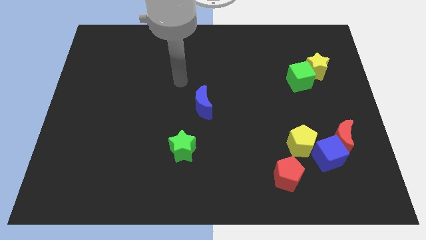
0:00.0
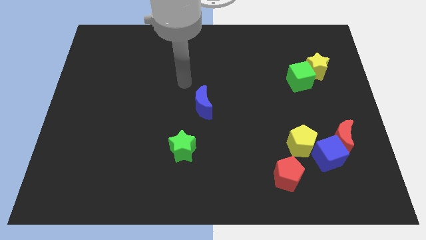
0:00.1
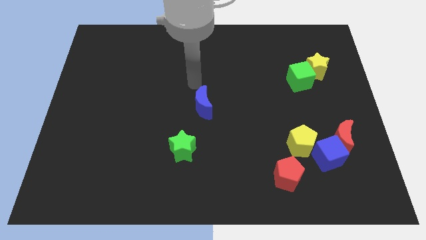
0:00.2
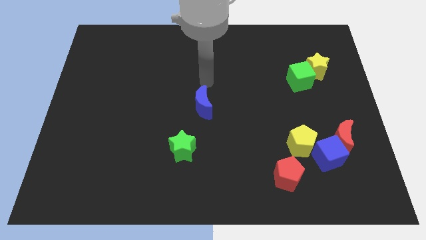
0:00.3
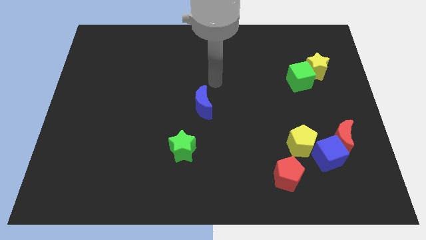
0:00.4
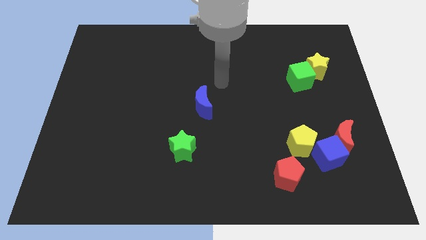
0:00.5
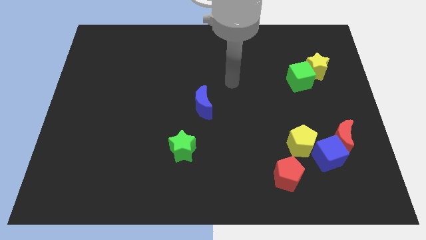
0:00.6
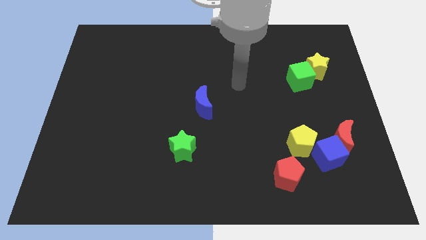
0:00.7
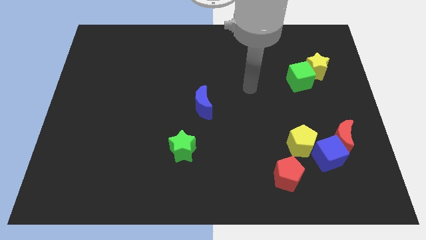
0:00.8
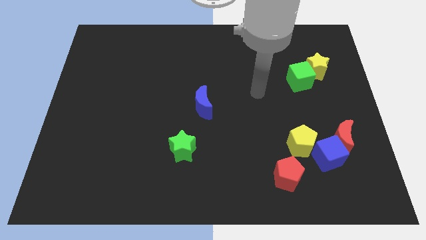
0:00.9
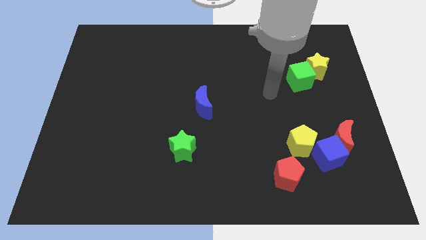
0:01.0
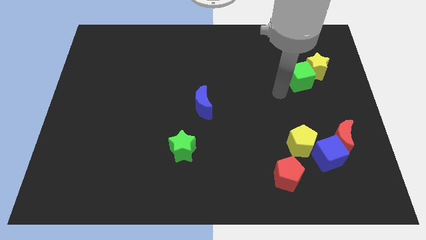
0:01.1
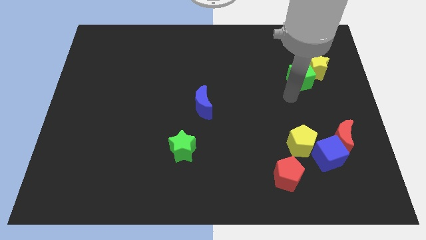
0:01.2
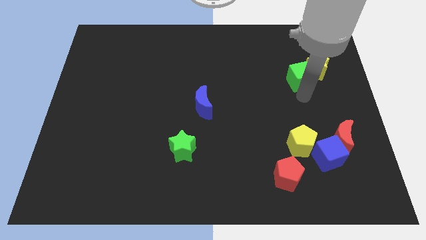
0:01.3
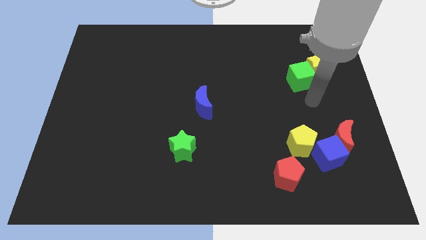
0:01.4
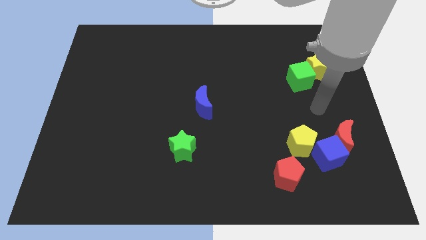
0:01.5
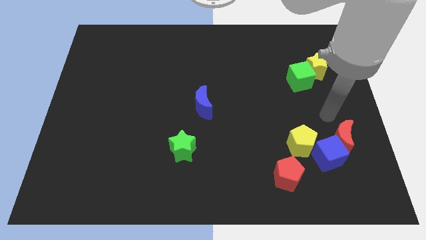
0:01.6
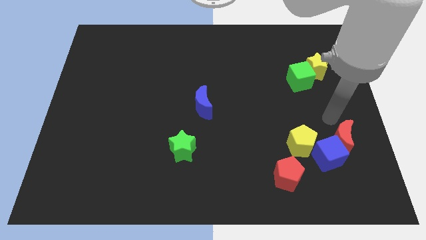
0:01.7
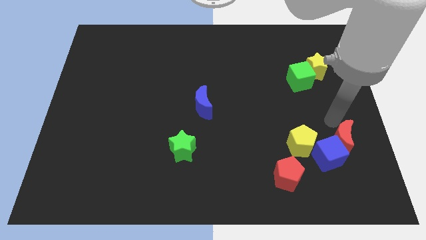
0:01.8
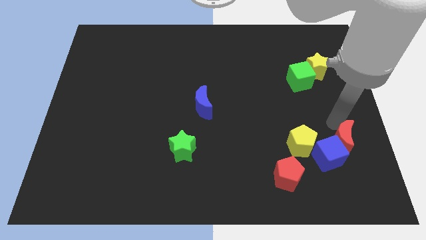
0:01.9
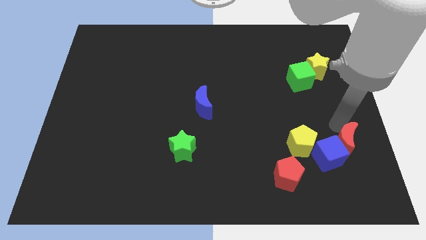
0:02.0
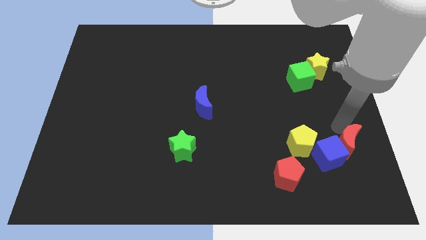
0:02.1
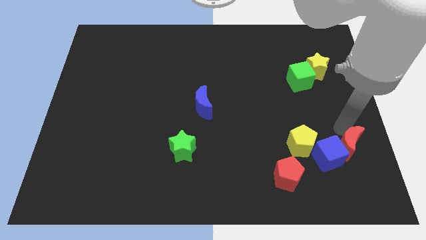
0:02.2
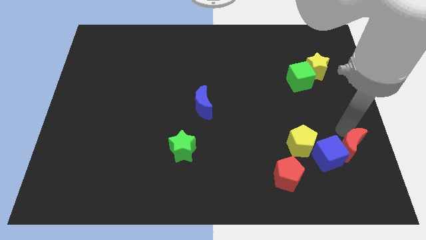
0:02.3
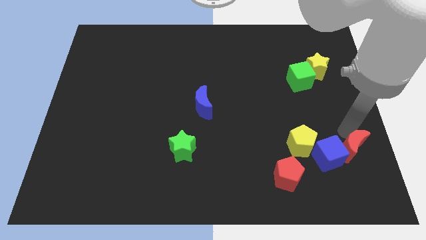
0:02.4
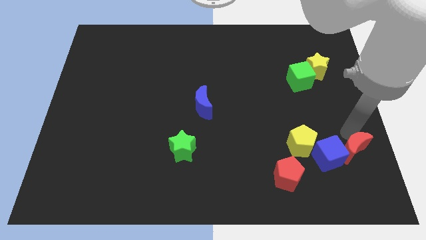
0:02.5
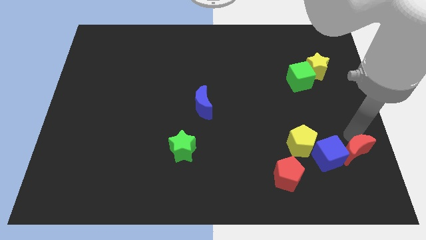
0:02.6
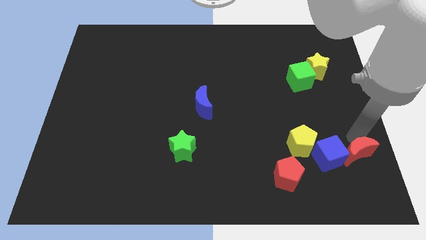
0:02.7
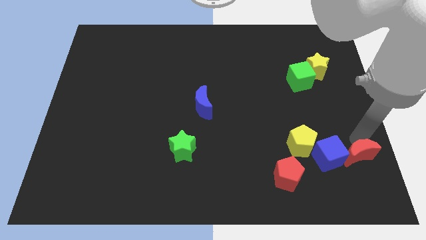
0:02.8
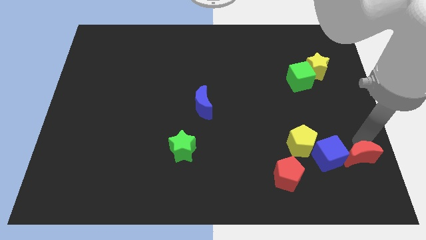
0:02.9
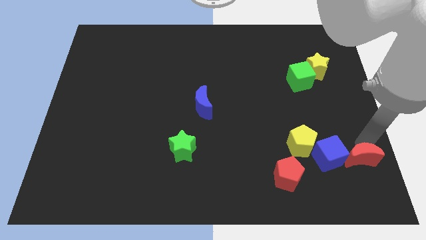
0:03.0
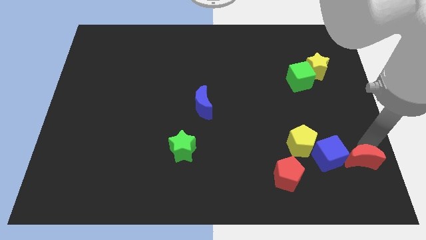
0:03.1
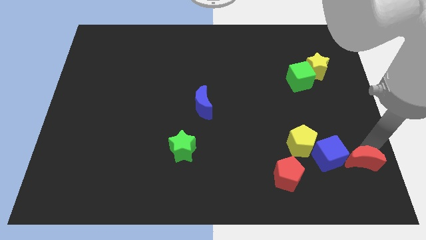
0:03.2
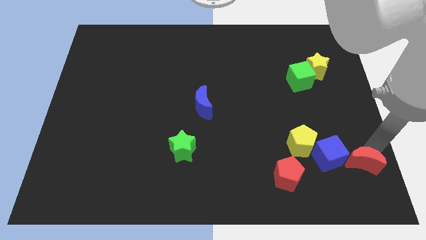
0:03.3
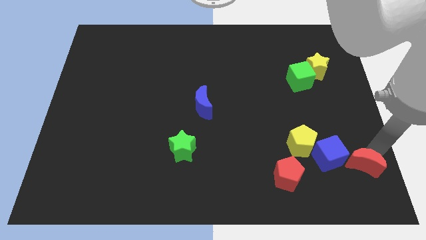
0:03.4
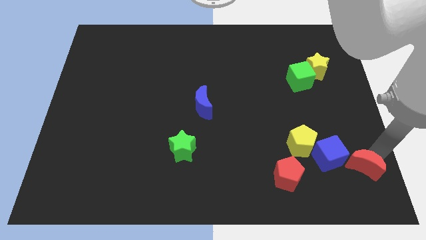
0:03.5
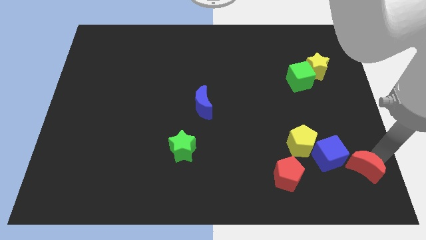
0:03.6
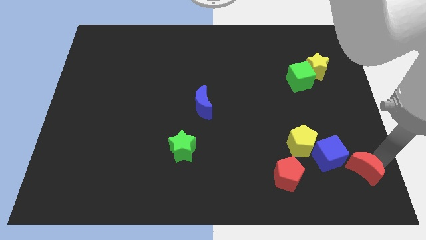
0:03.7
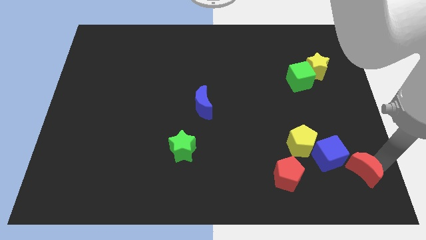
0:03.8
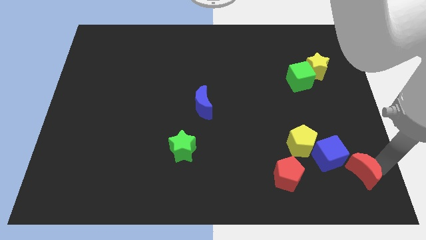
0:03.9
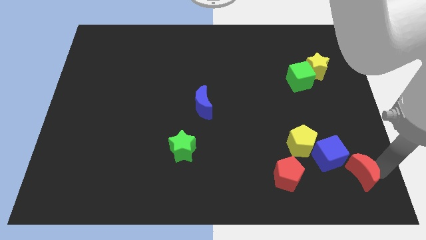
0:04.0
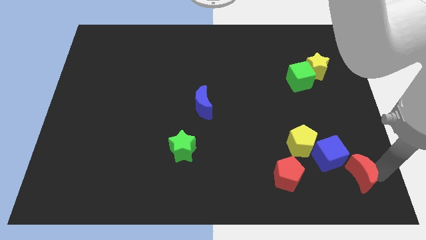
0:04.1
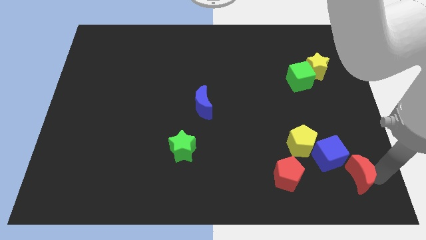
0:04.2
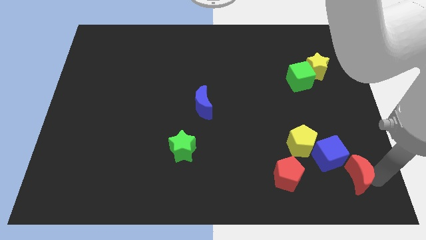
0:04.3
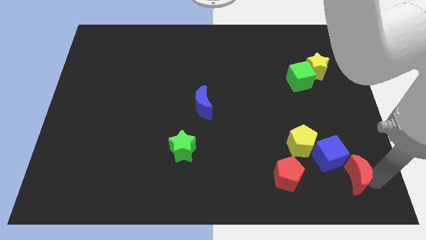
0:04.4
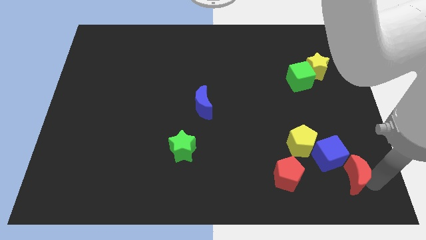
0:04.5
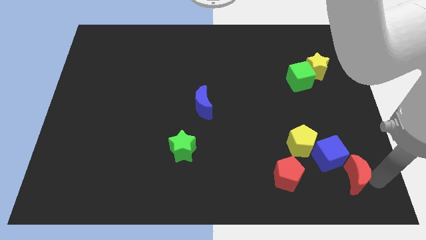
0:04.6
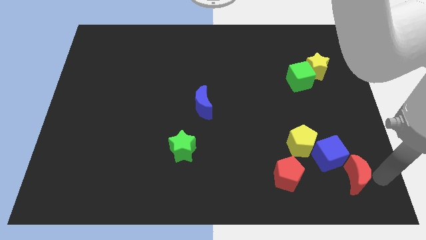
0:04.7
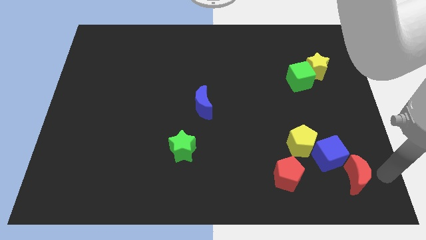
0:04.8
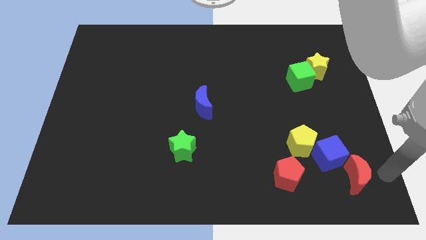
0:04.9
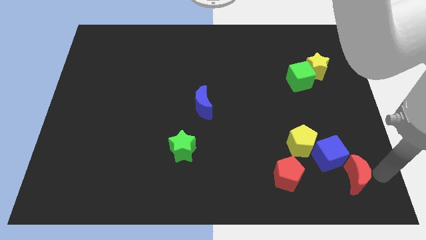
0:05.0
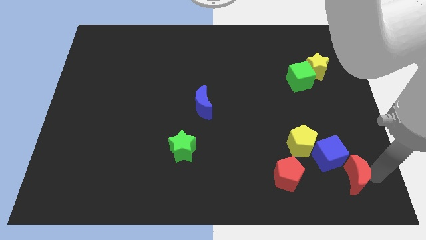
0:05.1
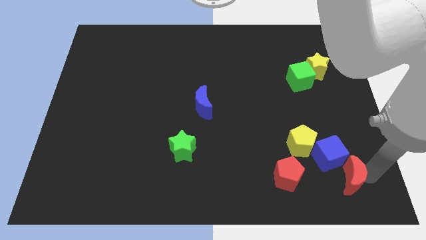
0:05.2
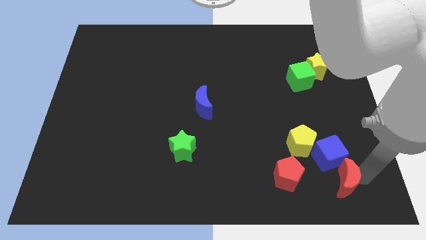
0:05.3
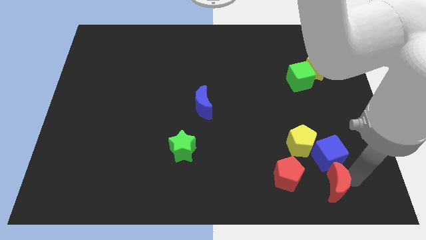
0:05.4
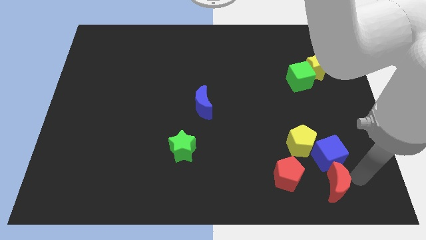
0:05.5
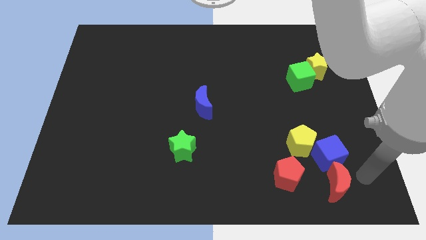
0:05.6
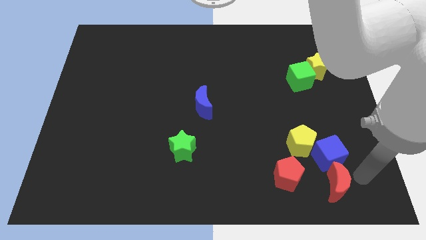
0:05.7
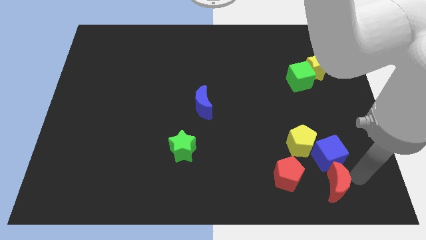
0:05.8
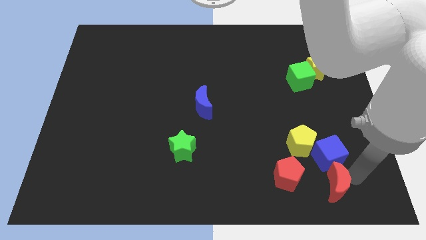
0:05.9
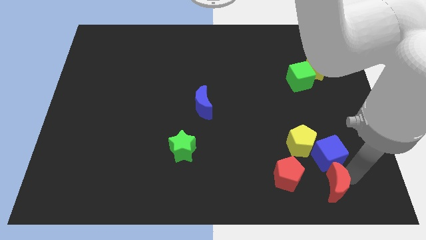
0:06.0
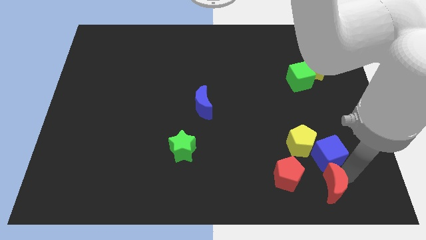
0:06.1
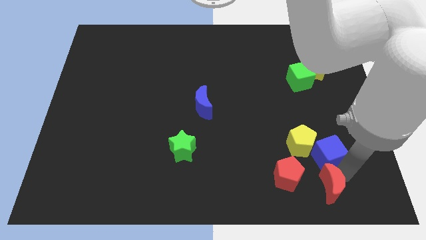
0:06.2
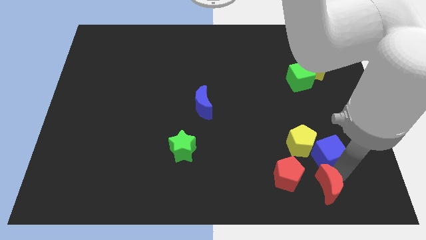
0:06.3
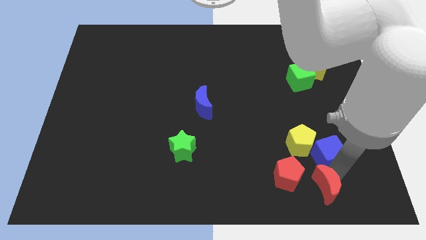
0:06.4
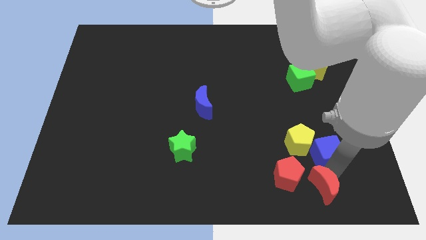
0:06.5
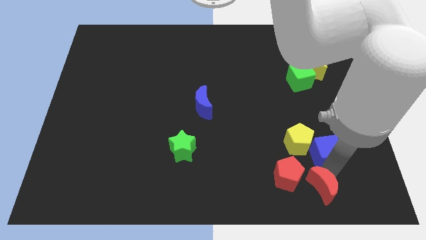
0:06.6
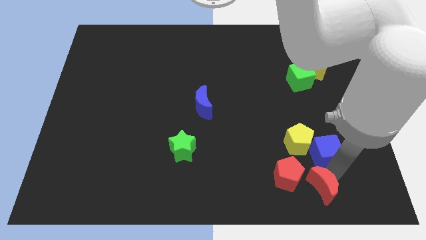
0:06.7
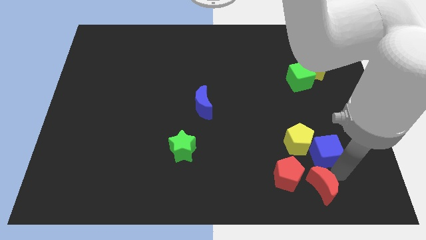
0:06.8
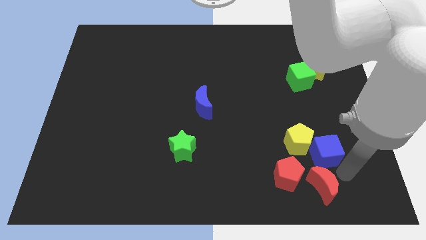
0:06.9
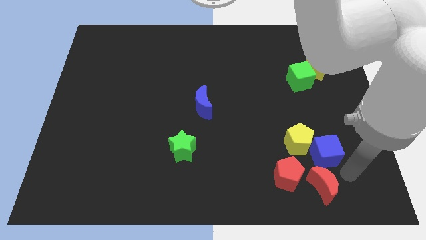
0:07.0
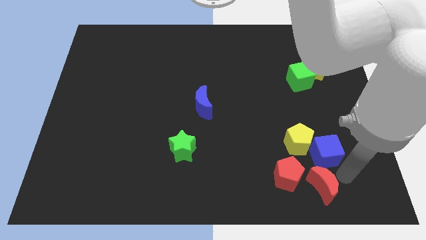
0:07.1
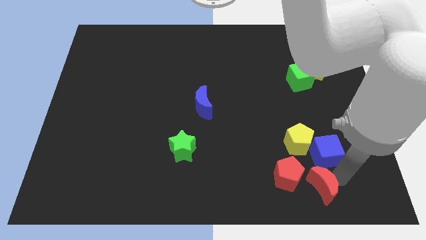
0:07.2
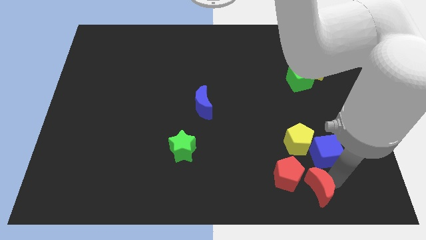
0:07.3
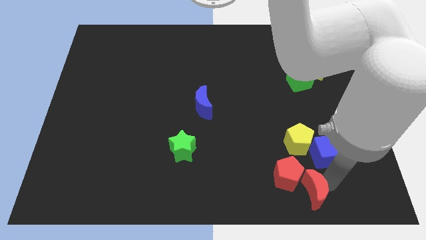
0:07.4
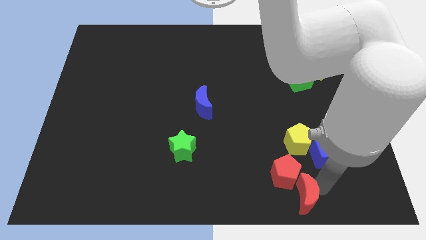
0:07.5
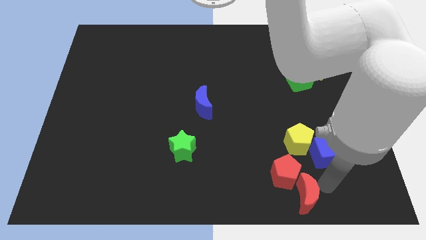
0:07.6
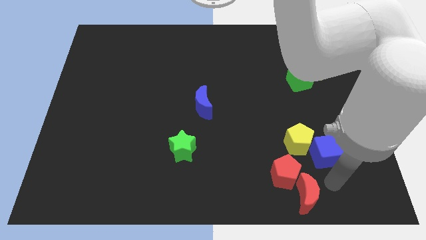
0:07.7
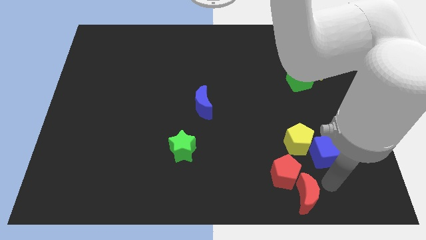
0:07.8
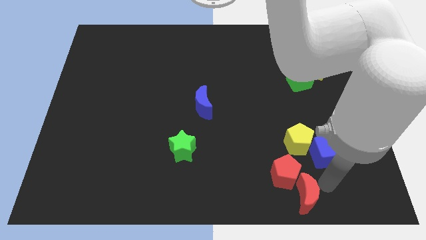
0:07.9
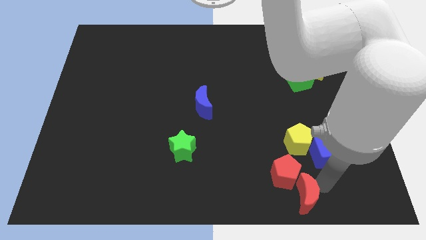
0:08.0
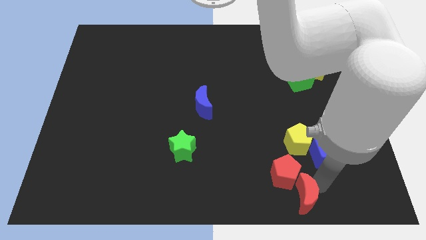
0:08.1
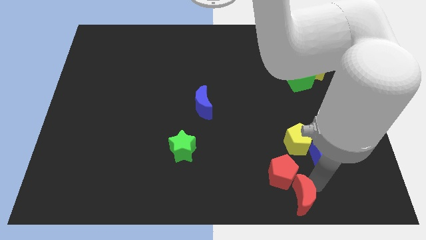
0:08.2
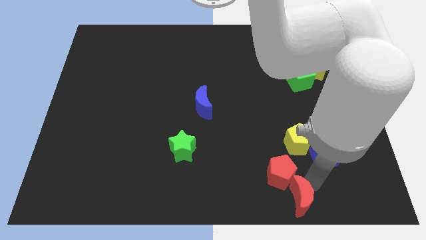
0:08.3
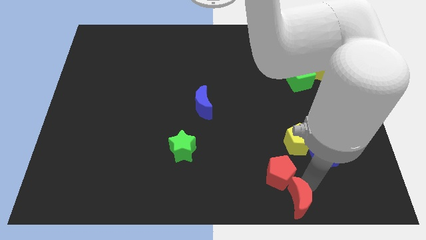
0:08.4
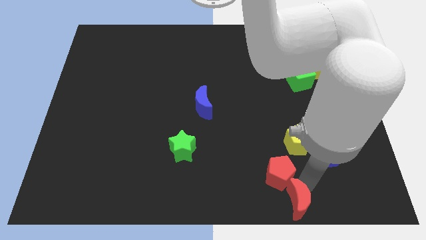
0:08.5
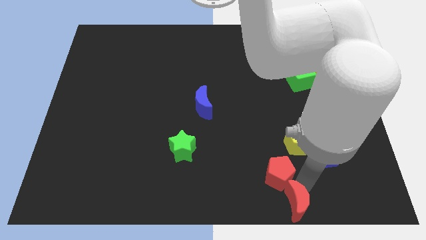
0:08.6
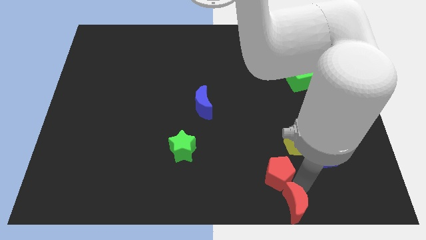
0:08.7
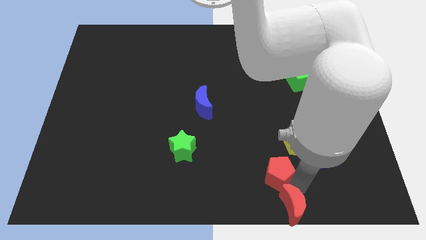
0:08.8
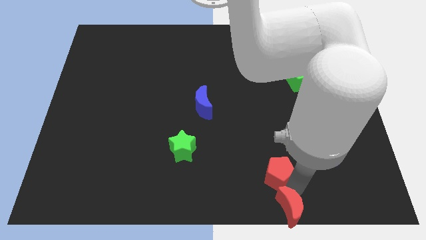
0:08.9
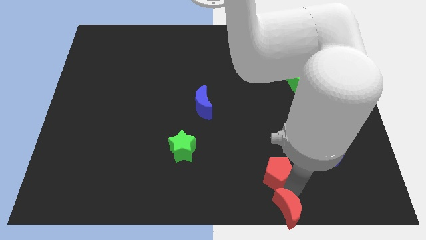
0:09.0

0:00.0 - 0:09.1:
move the red moon to the bottom
